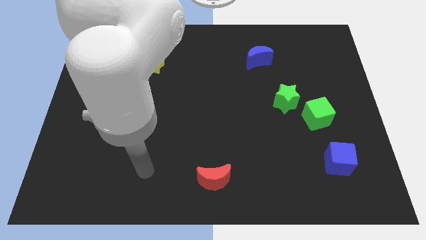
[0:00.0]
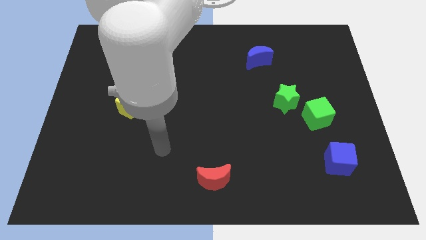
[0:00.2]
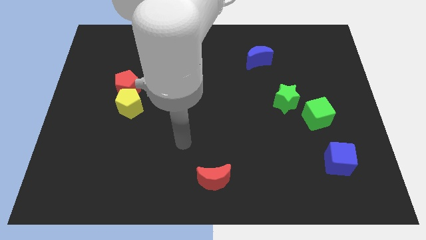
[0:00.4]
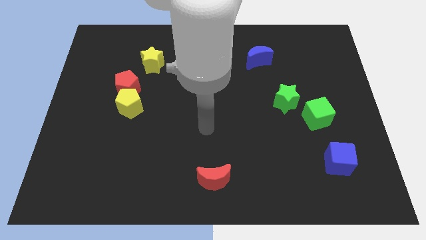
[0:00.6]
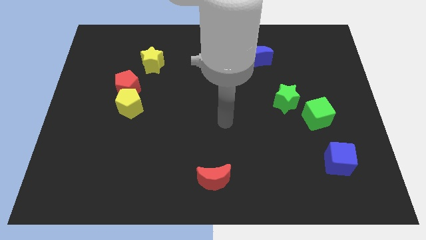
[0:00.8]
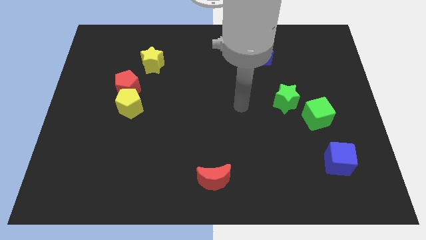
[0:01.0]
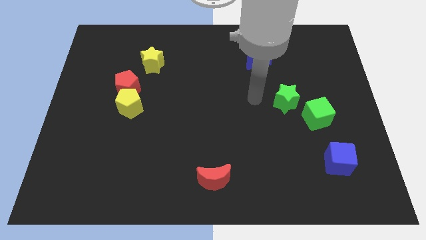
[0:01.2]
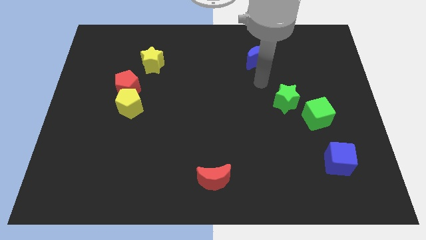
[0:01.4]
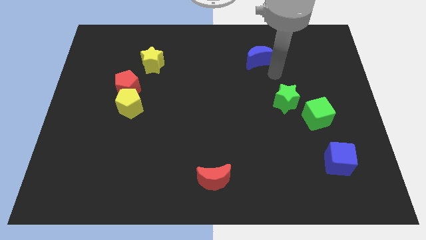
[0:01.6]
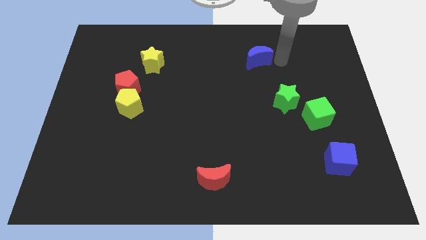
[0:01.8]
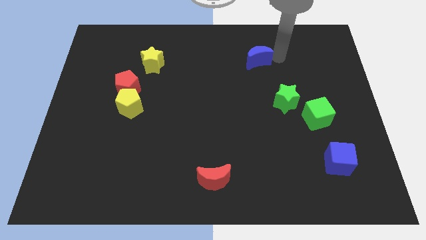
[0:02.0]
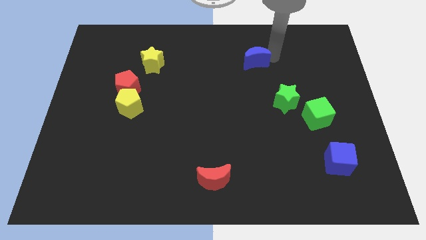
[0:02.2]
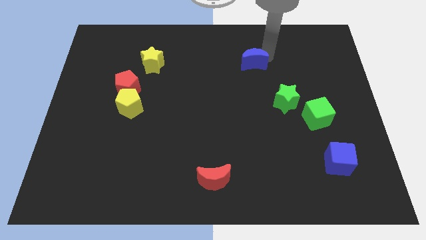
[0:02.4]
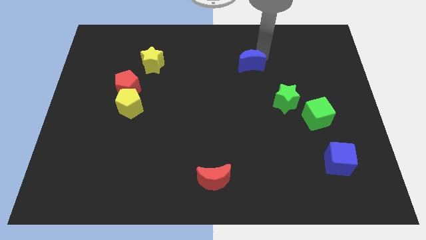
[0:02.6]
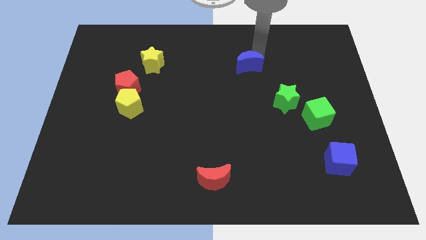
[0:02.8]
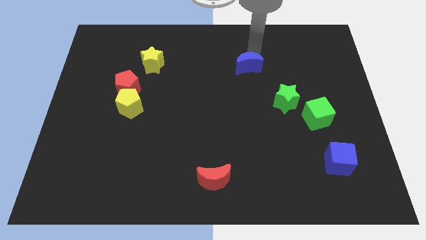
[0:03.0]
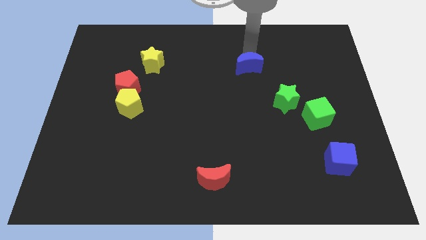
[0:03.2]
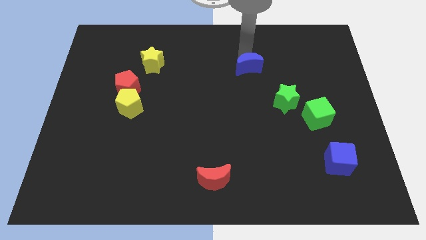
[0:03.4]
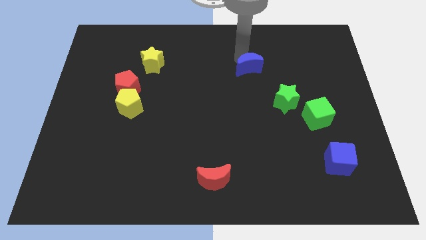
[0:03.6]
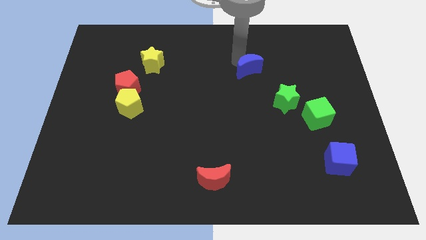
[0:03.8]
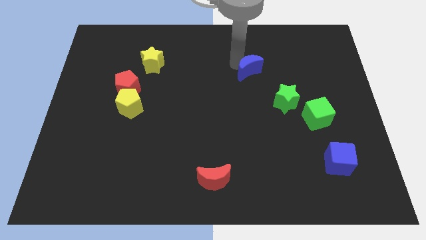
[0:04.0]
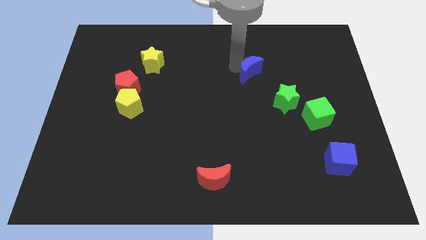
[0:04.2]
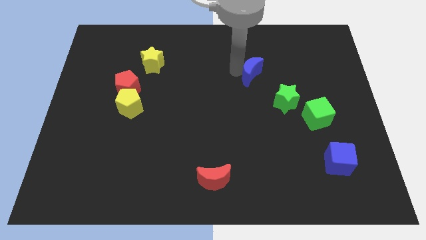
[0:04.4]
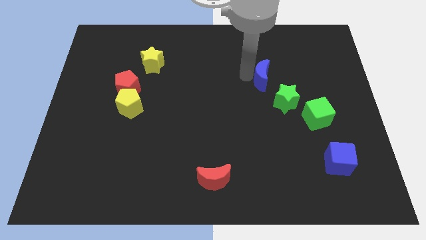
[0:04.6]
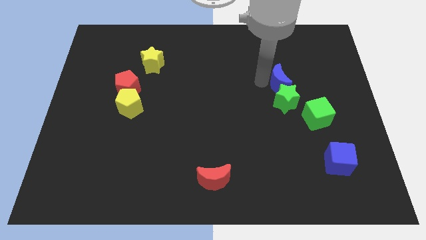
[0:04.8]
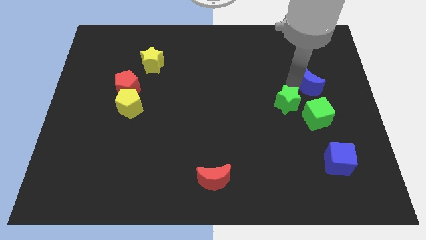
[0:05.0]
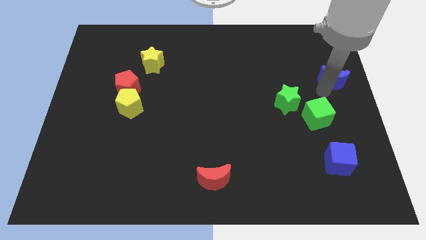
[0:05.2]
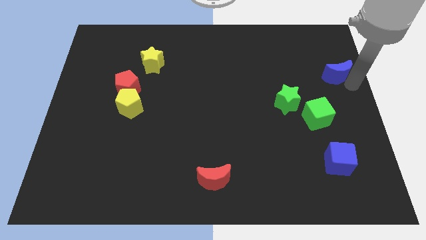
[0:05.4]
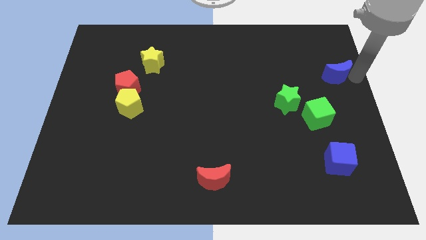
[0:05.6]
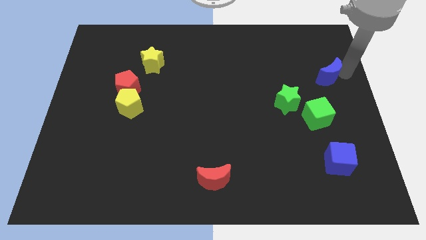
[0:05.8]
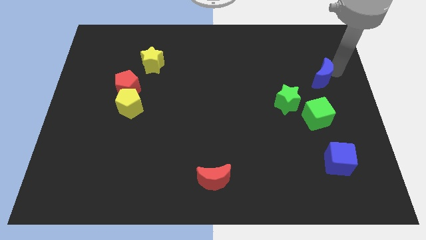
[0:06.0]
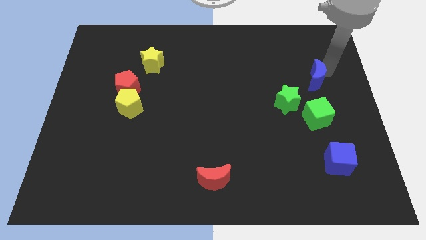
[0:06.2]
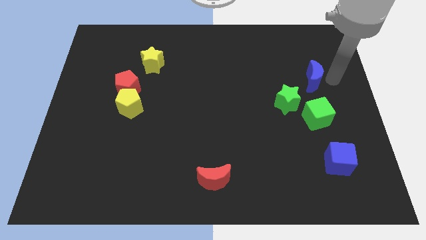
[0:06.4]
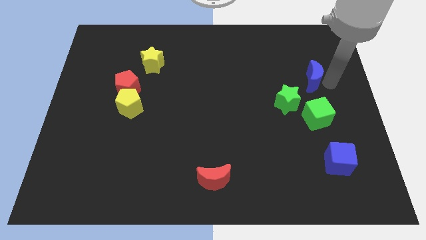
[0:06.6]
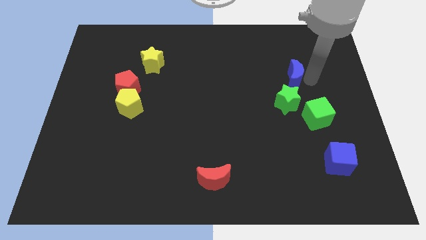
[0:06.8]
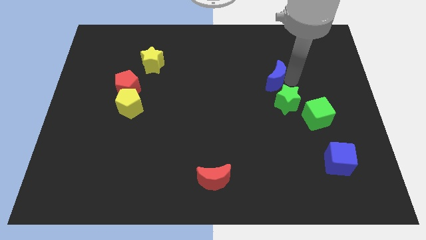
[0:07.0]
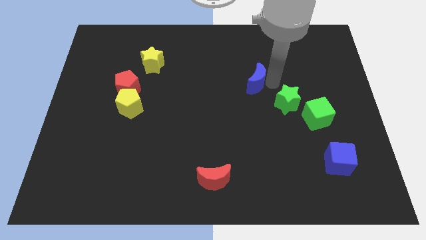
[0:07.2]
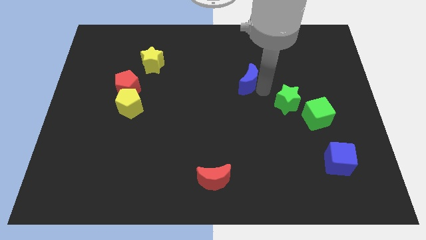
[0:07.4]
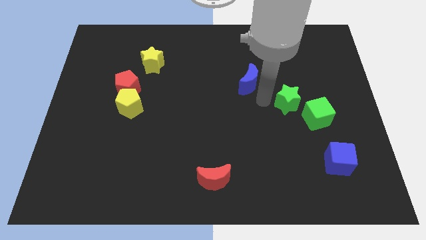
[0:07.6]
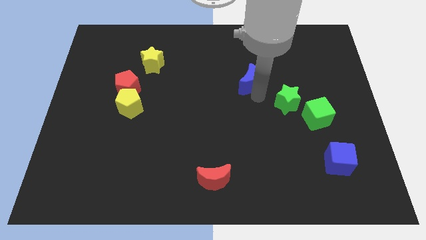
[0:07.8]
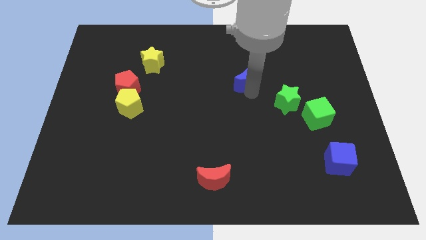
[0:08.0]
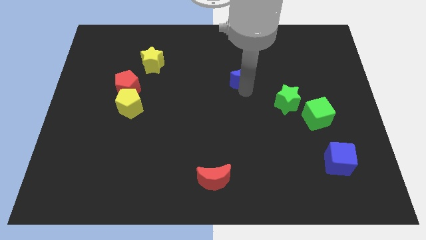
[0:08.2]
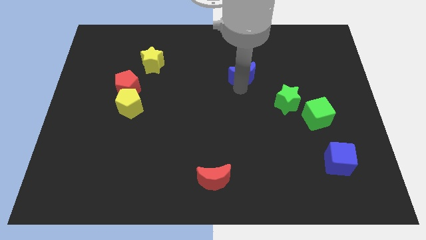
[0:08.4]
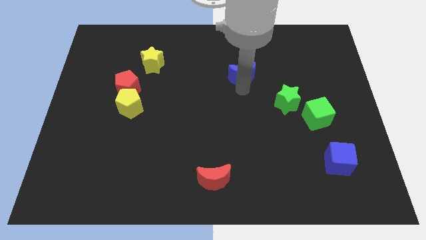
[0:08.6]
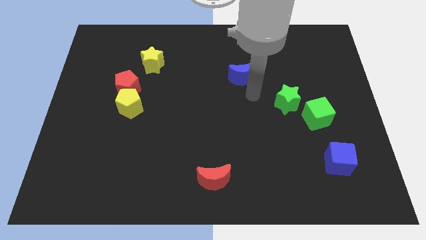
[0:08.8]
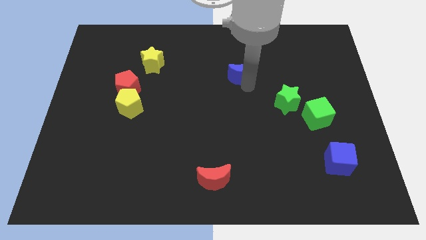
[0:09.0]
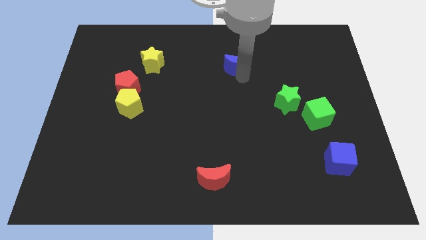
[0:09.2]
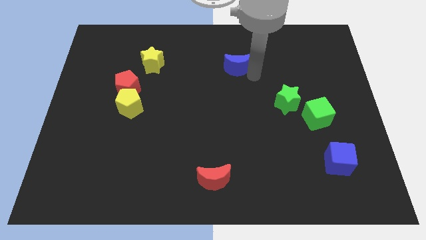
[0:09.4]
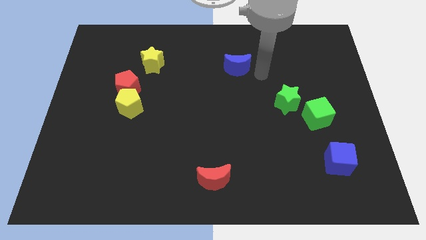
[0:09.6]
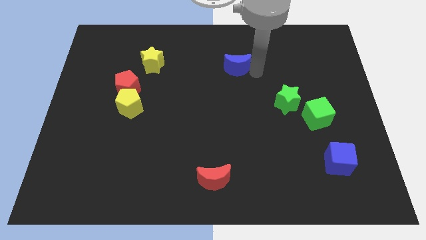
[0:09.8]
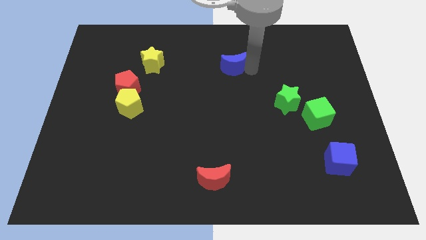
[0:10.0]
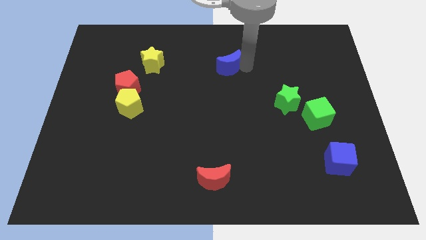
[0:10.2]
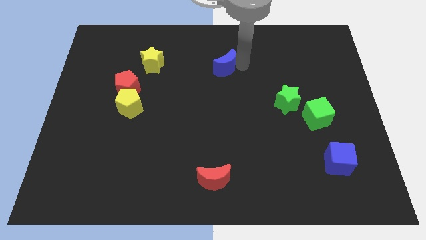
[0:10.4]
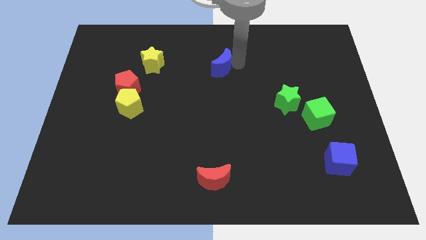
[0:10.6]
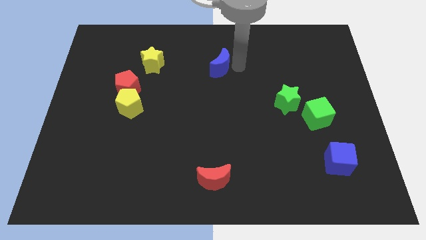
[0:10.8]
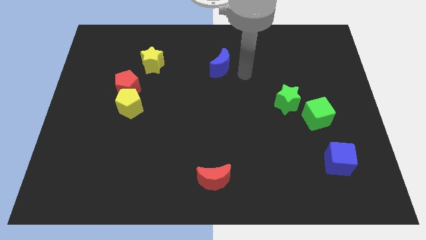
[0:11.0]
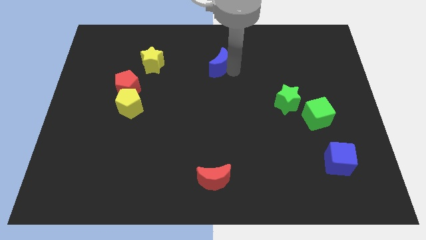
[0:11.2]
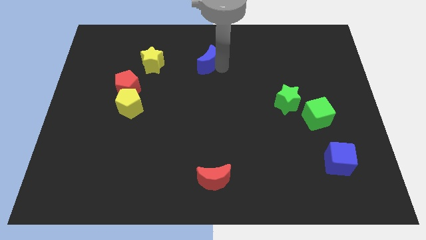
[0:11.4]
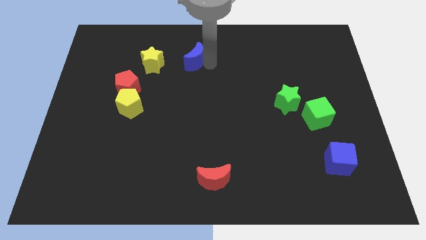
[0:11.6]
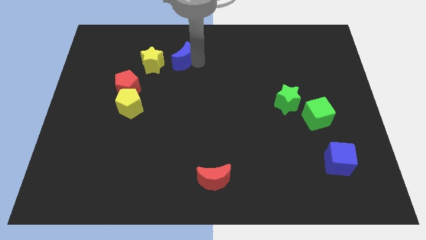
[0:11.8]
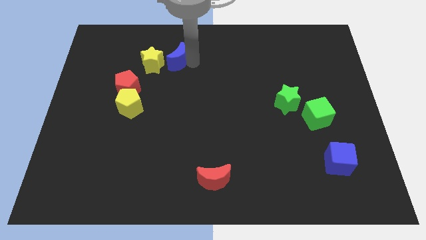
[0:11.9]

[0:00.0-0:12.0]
push the blue moon to the left

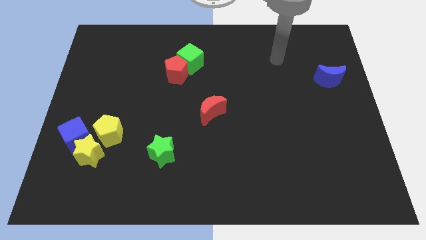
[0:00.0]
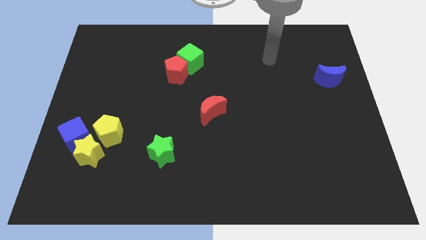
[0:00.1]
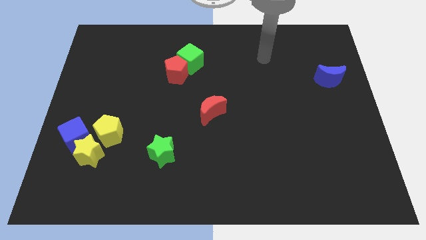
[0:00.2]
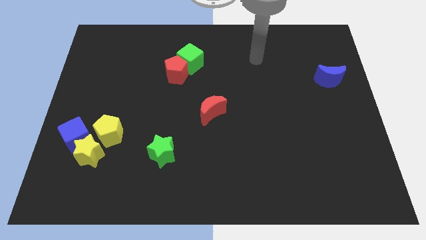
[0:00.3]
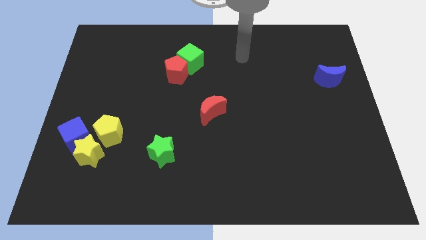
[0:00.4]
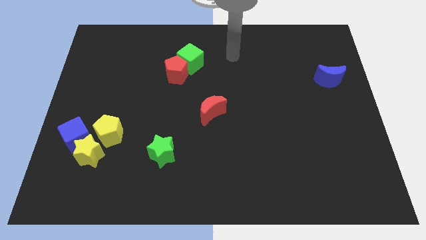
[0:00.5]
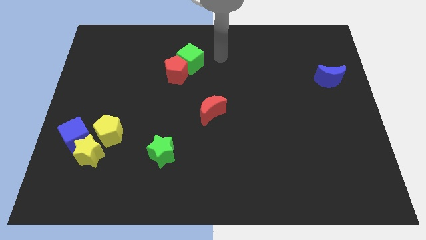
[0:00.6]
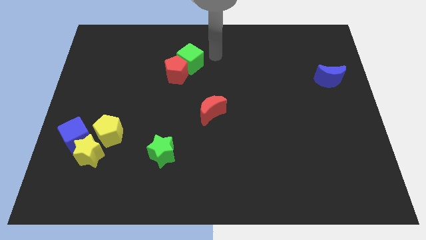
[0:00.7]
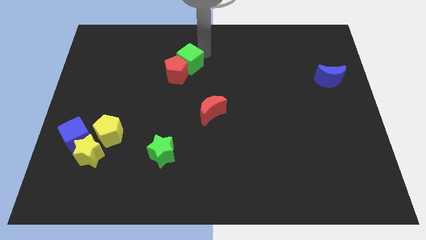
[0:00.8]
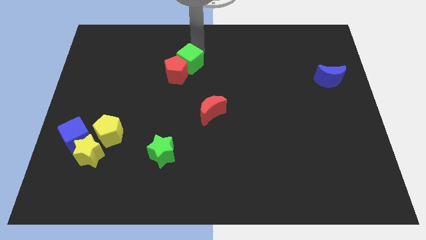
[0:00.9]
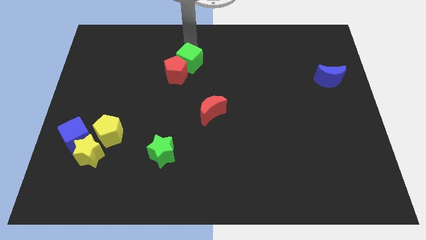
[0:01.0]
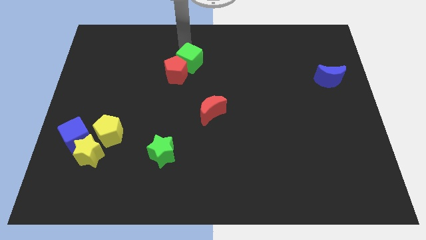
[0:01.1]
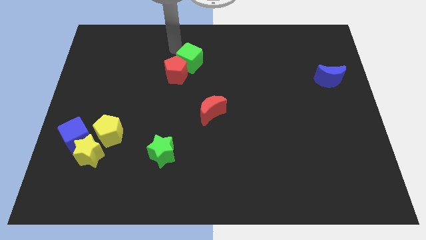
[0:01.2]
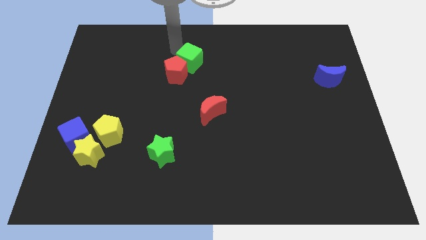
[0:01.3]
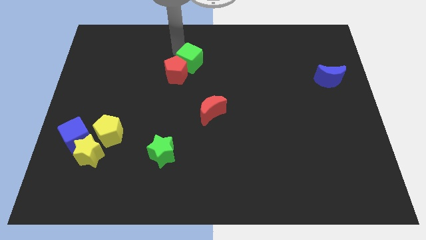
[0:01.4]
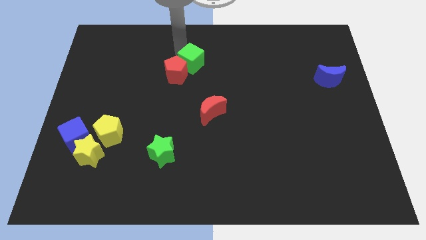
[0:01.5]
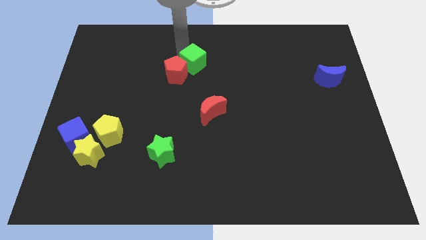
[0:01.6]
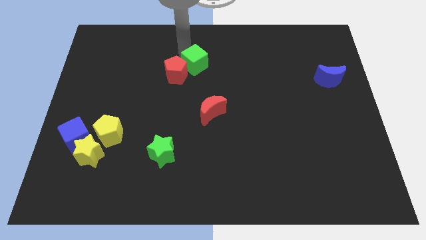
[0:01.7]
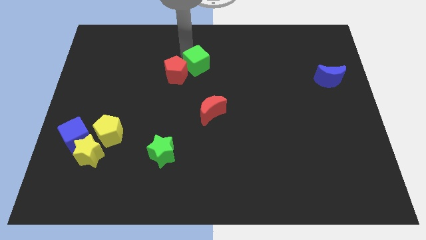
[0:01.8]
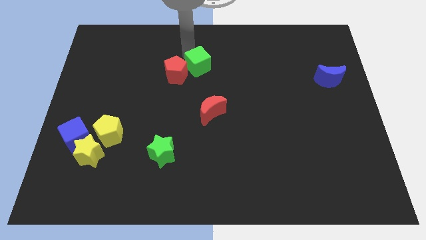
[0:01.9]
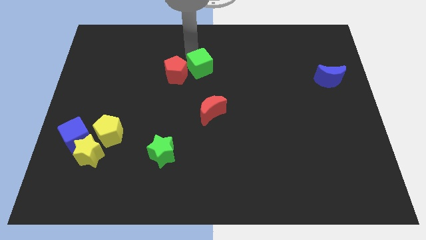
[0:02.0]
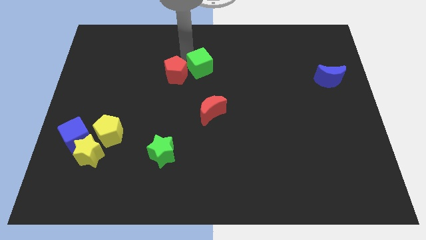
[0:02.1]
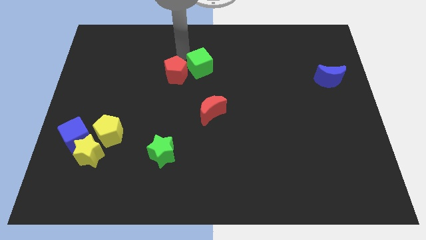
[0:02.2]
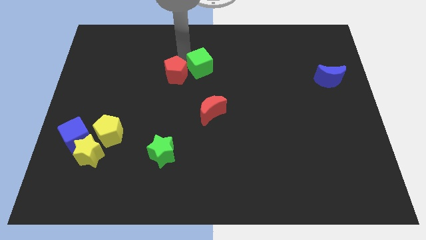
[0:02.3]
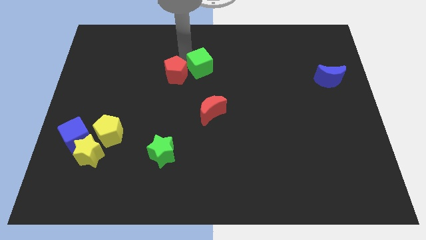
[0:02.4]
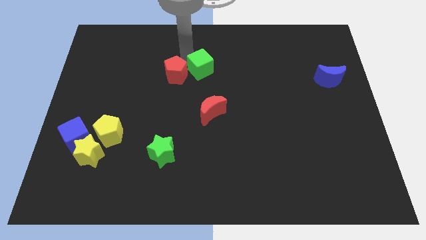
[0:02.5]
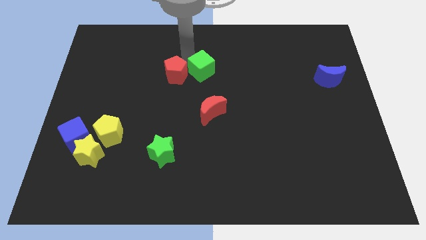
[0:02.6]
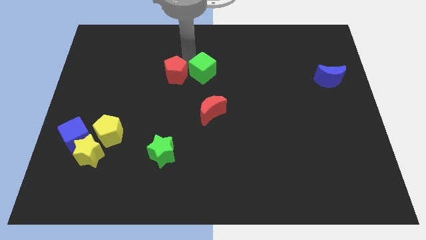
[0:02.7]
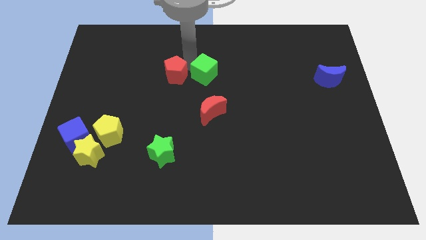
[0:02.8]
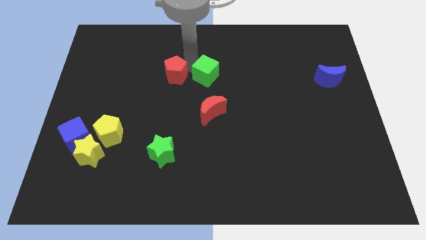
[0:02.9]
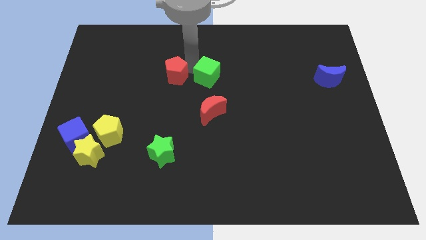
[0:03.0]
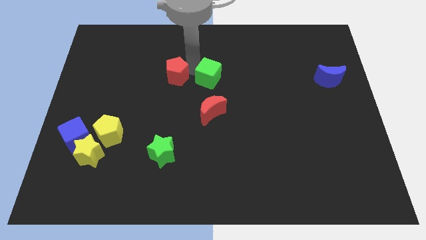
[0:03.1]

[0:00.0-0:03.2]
slightly move the green cube down and right diagonally
